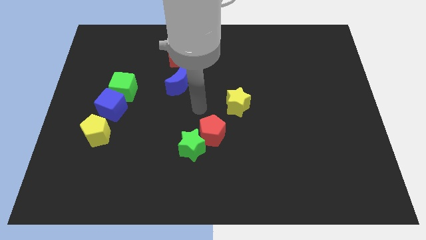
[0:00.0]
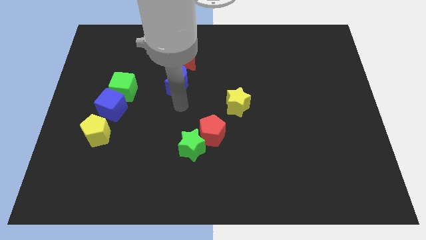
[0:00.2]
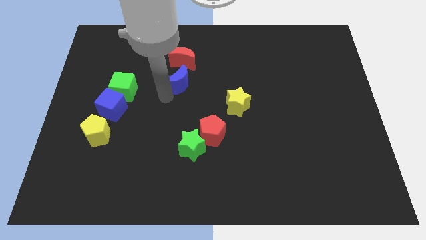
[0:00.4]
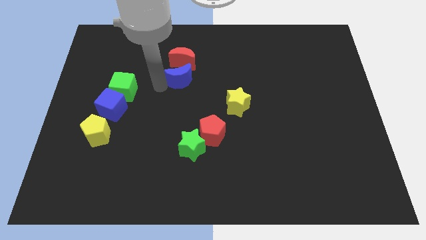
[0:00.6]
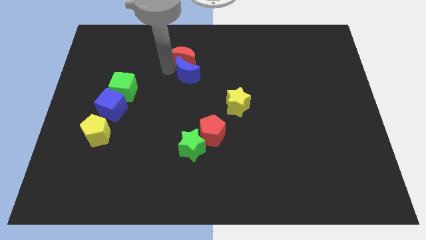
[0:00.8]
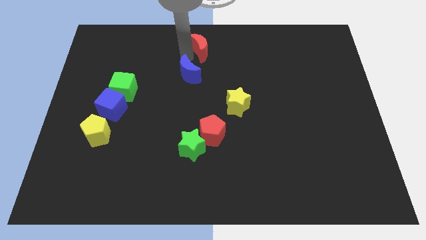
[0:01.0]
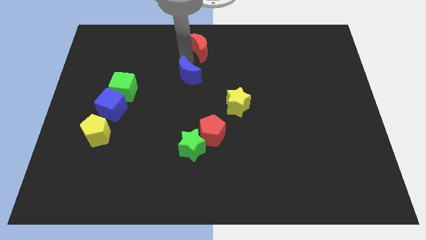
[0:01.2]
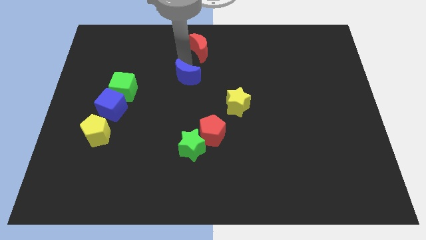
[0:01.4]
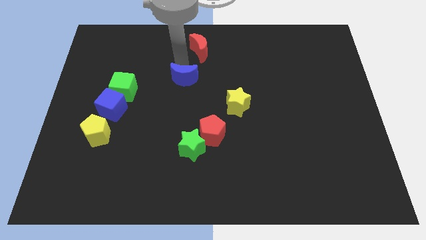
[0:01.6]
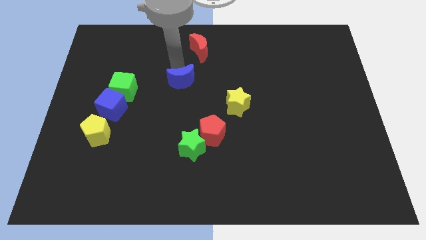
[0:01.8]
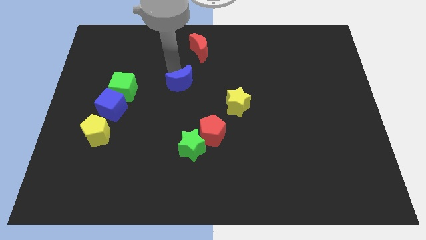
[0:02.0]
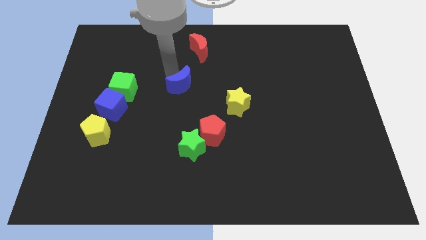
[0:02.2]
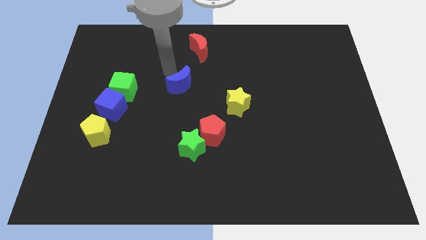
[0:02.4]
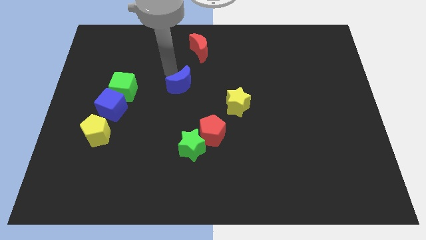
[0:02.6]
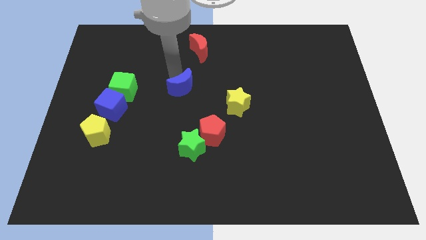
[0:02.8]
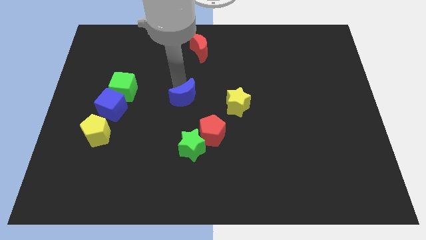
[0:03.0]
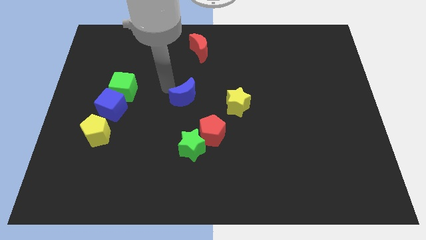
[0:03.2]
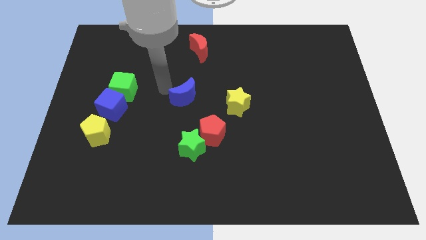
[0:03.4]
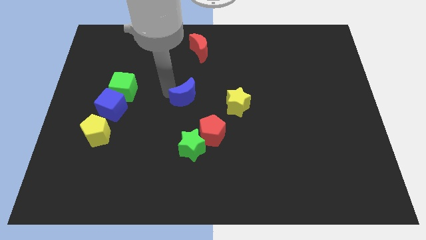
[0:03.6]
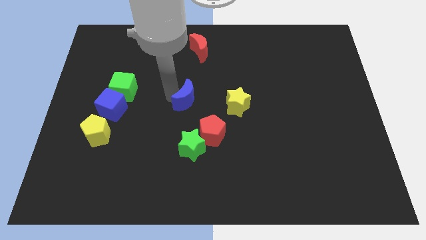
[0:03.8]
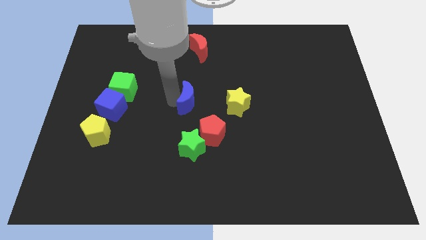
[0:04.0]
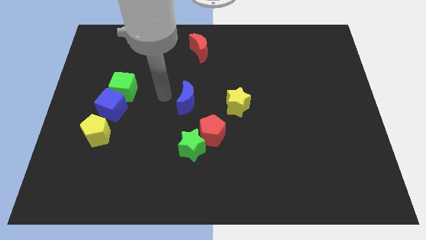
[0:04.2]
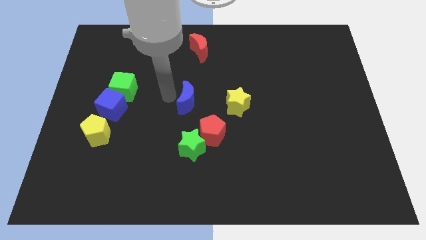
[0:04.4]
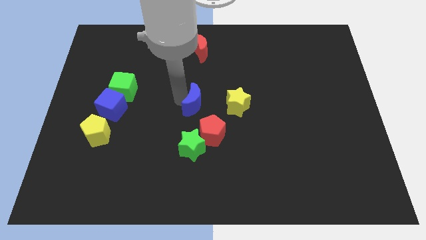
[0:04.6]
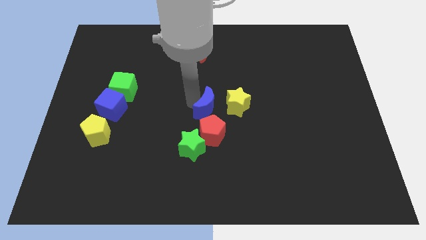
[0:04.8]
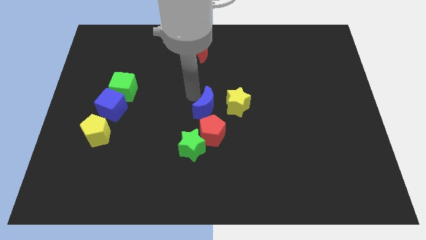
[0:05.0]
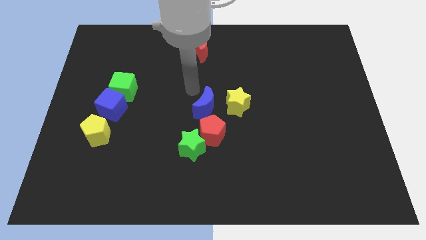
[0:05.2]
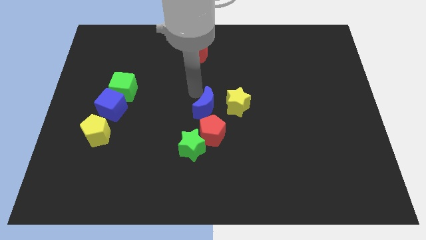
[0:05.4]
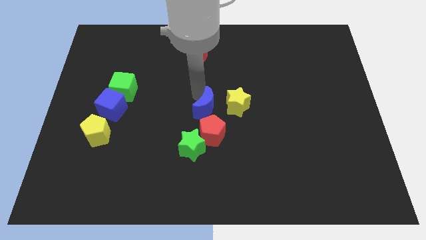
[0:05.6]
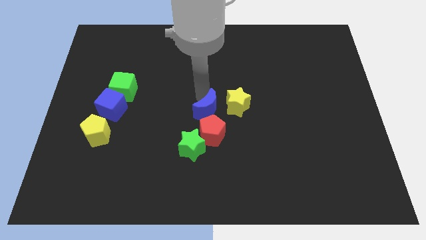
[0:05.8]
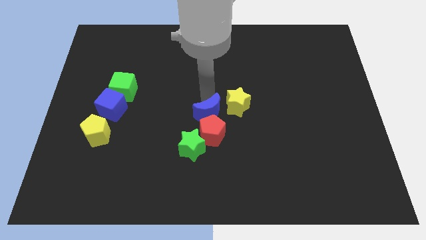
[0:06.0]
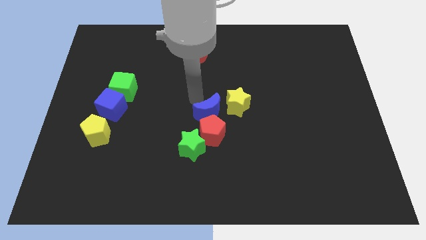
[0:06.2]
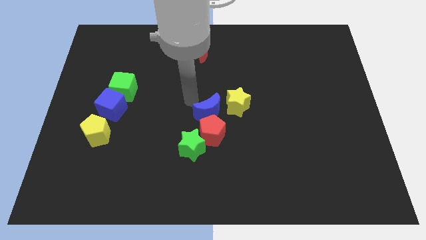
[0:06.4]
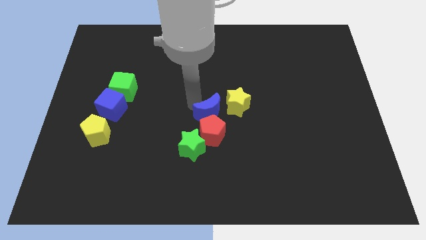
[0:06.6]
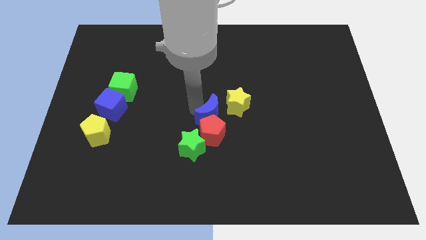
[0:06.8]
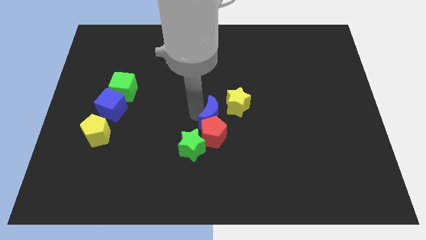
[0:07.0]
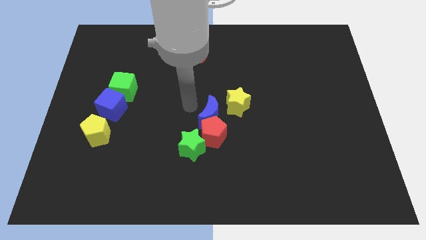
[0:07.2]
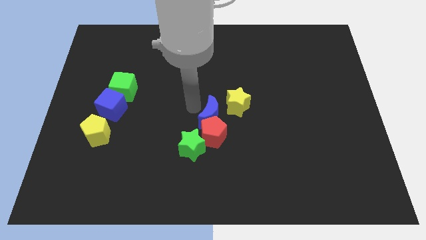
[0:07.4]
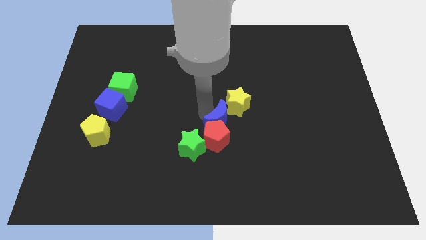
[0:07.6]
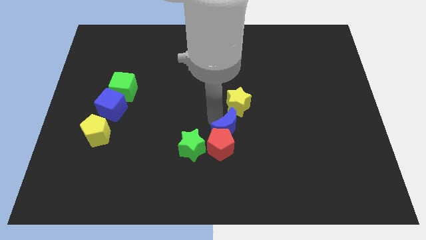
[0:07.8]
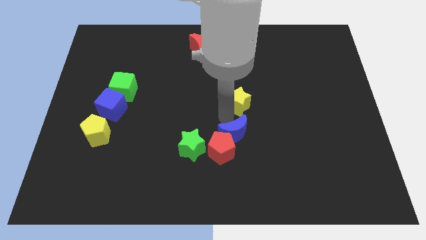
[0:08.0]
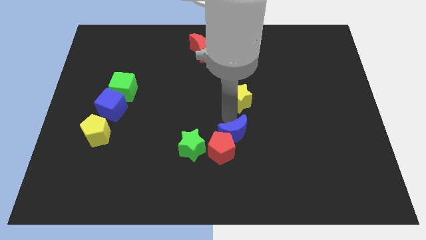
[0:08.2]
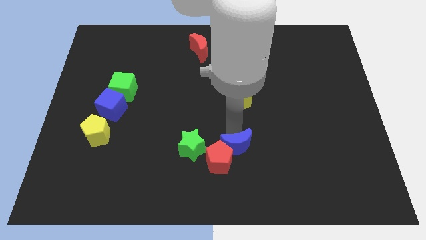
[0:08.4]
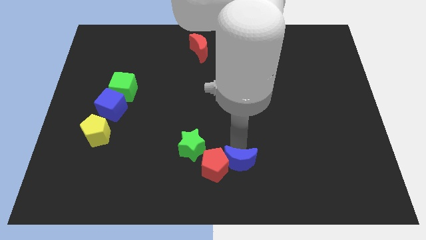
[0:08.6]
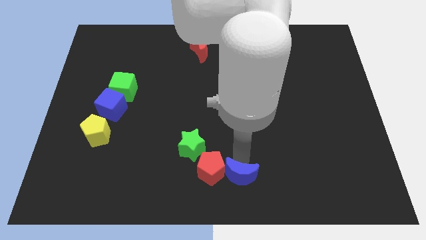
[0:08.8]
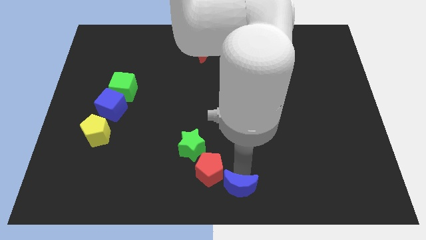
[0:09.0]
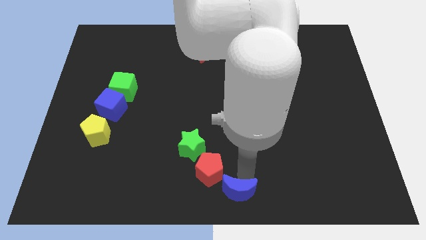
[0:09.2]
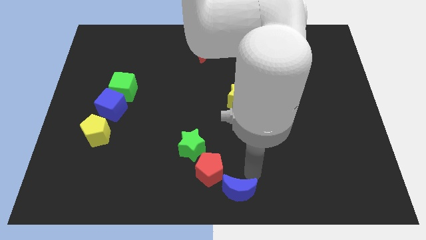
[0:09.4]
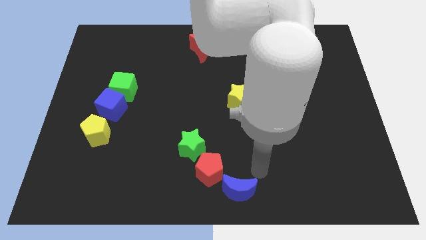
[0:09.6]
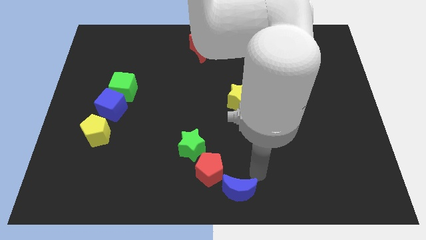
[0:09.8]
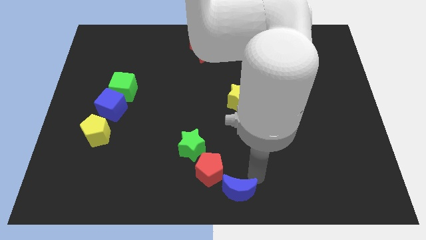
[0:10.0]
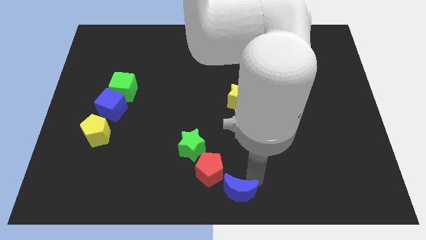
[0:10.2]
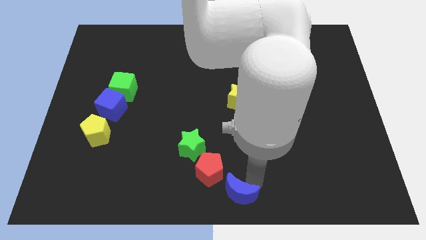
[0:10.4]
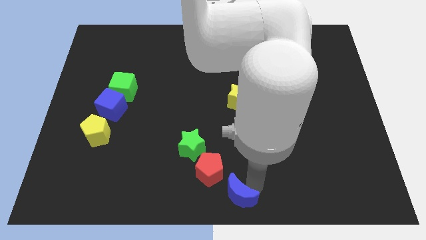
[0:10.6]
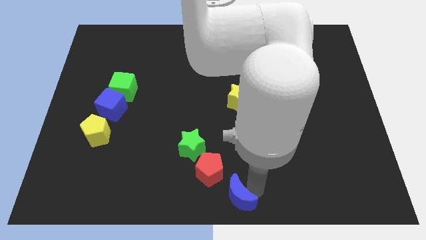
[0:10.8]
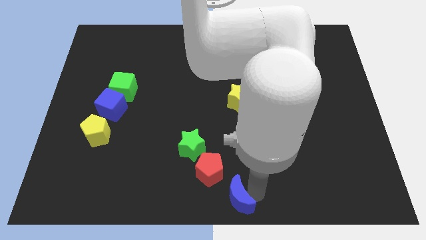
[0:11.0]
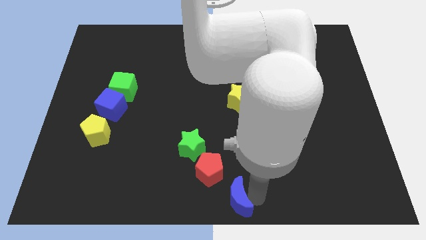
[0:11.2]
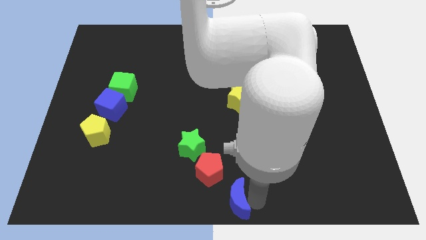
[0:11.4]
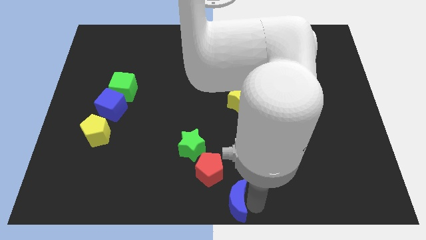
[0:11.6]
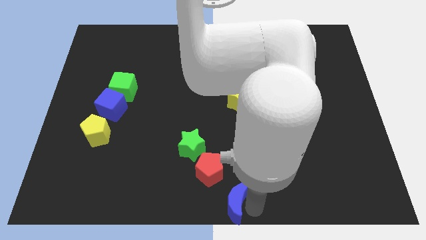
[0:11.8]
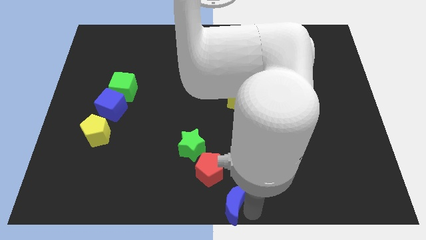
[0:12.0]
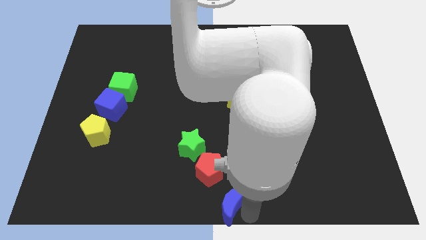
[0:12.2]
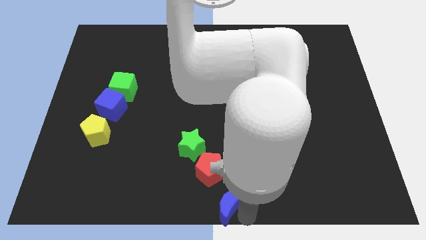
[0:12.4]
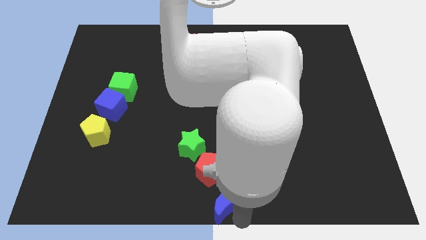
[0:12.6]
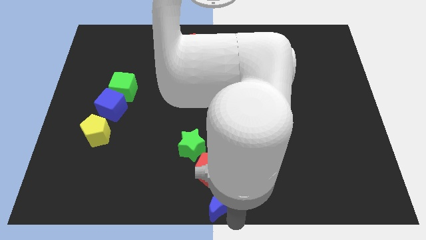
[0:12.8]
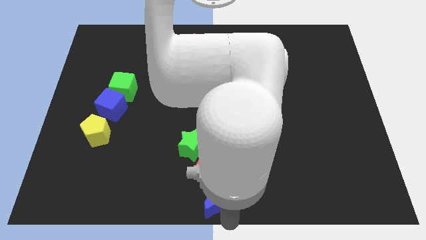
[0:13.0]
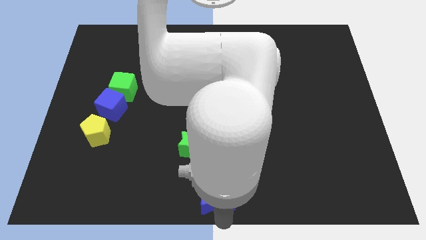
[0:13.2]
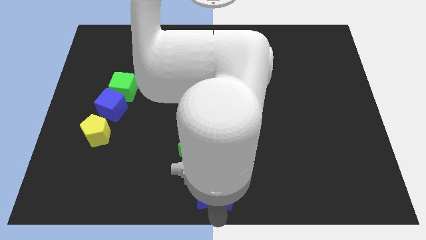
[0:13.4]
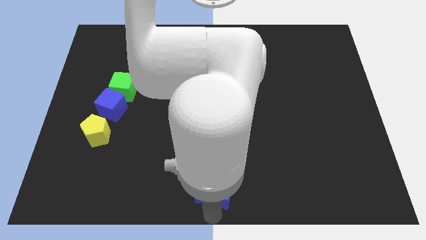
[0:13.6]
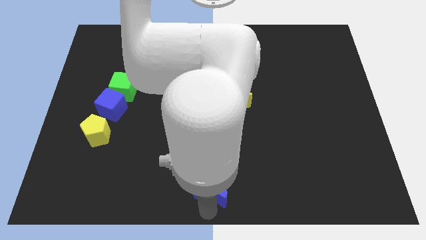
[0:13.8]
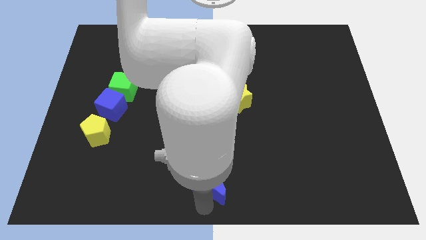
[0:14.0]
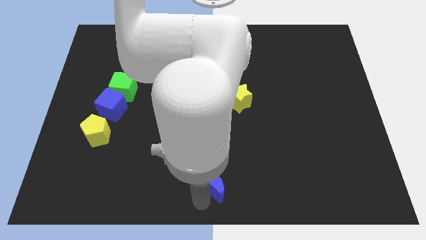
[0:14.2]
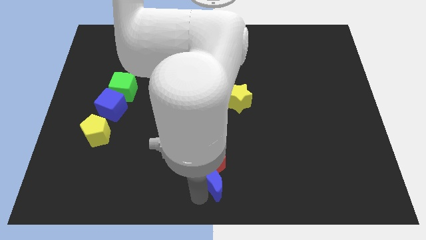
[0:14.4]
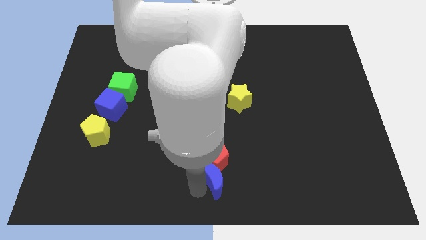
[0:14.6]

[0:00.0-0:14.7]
put the blue moon diagonally down and to the right of the red pentagon
